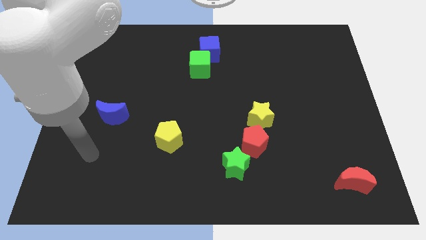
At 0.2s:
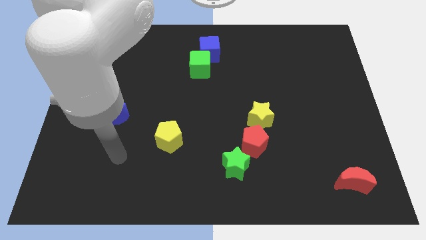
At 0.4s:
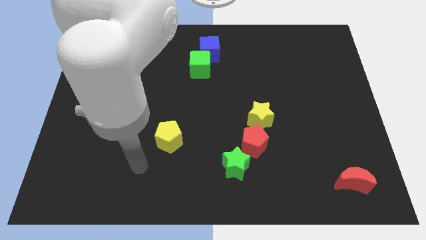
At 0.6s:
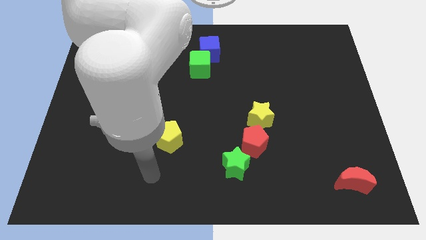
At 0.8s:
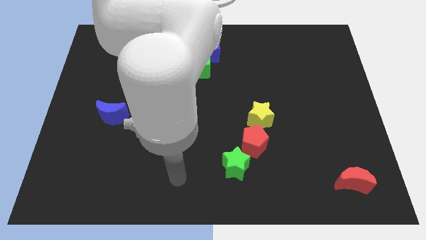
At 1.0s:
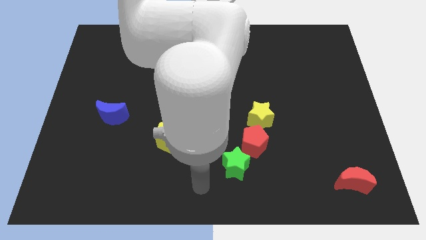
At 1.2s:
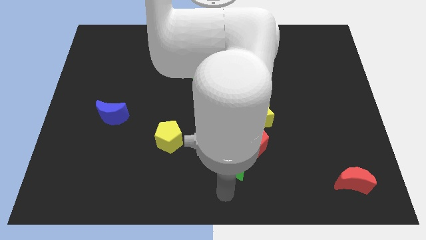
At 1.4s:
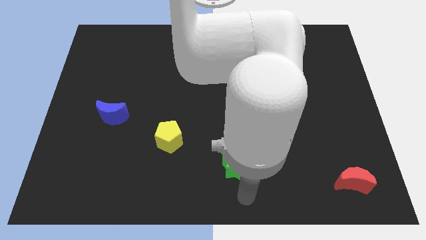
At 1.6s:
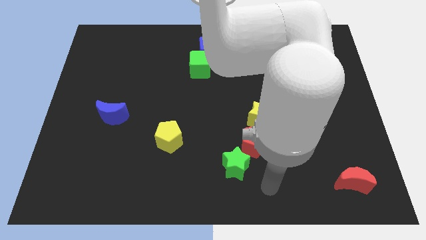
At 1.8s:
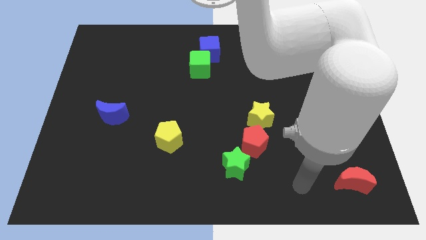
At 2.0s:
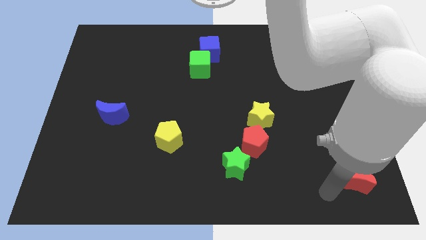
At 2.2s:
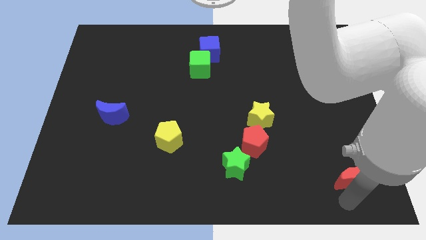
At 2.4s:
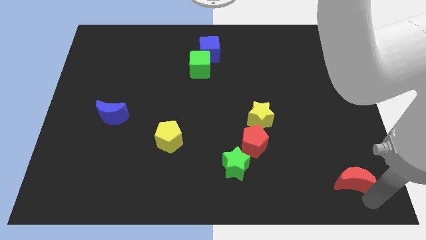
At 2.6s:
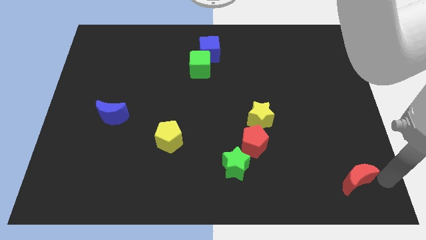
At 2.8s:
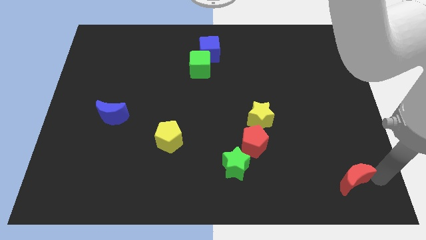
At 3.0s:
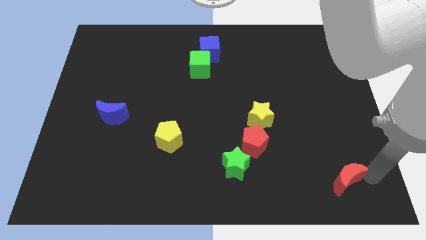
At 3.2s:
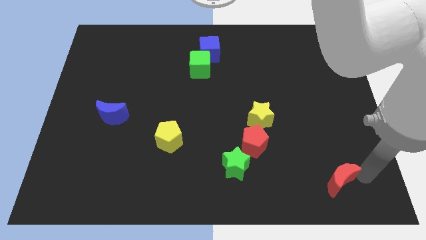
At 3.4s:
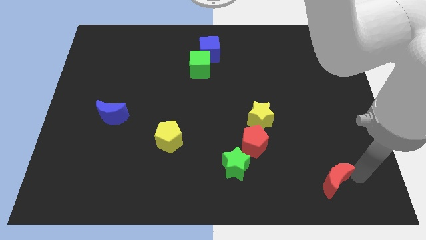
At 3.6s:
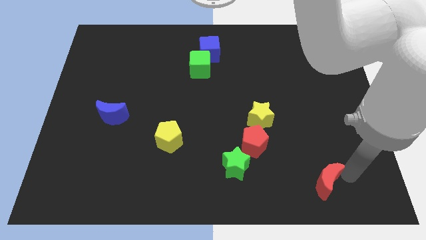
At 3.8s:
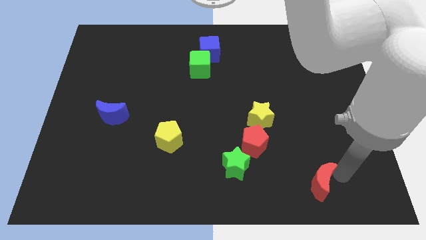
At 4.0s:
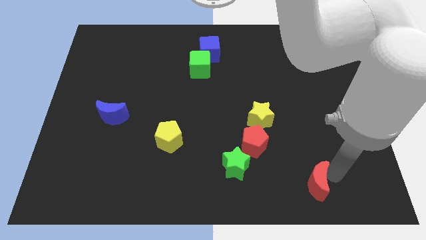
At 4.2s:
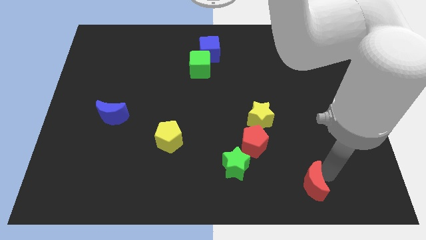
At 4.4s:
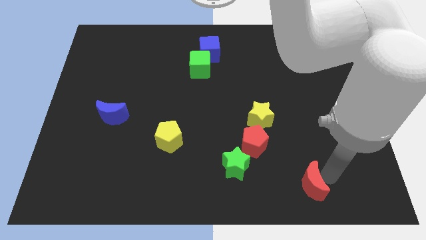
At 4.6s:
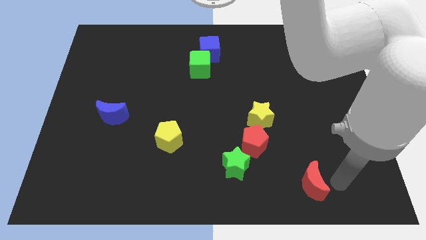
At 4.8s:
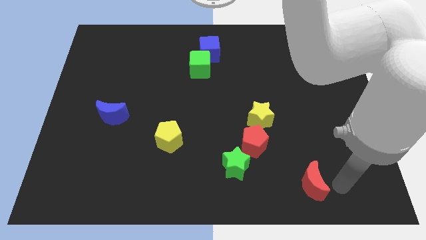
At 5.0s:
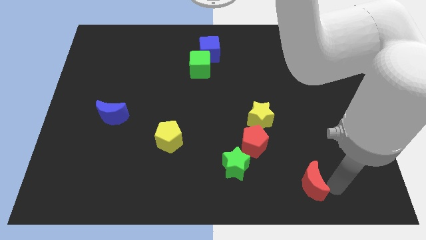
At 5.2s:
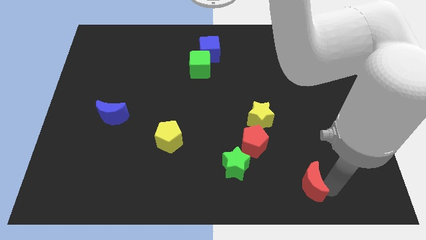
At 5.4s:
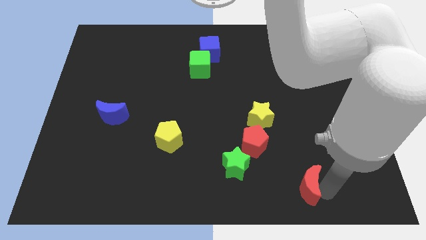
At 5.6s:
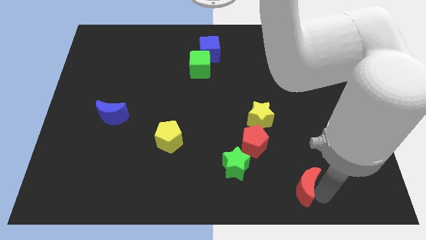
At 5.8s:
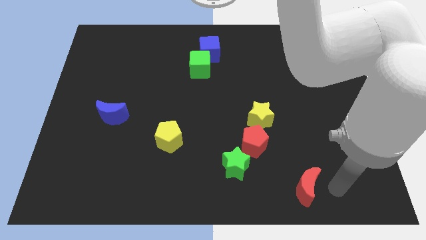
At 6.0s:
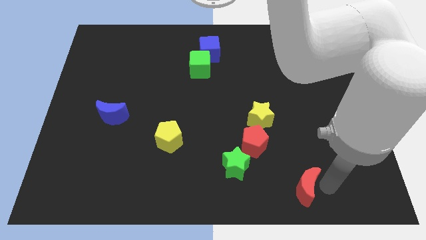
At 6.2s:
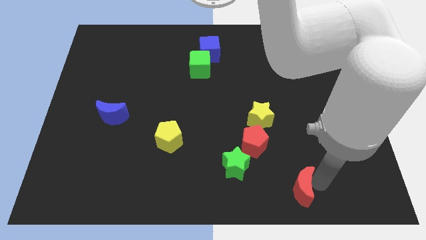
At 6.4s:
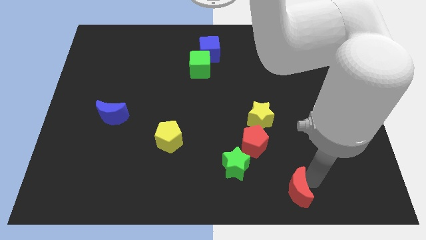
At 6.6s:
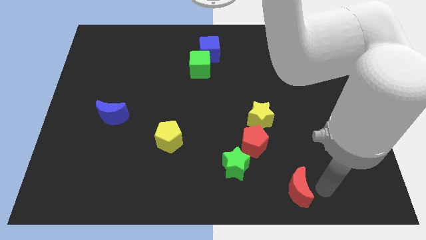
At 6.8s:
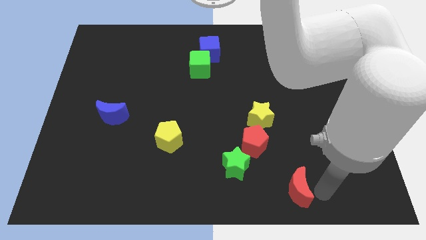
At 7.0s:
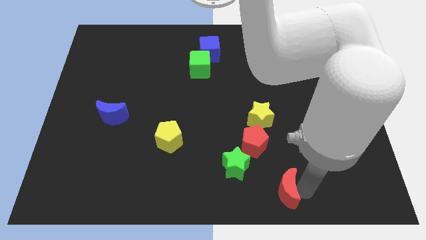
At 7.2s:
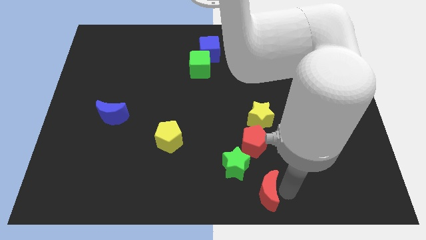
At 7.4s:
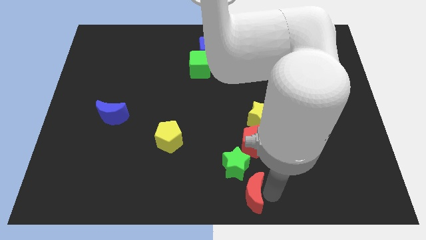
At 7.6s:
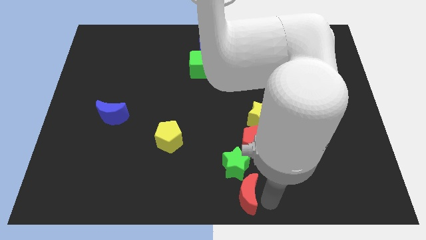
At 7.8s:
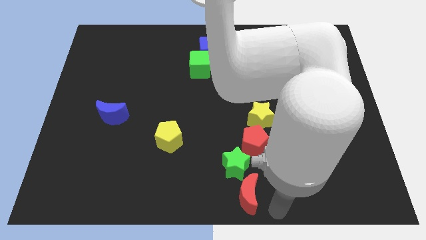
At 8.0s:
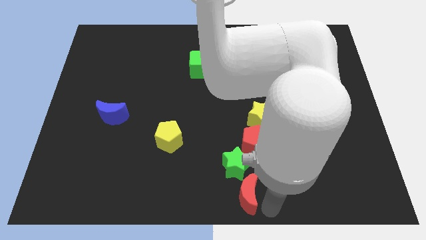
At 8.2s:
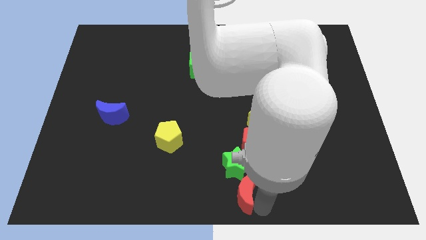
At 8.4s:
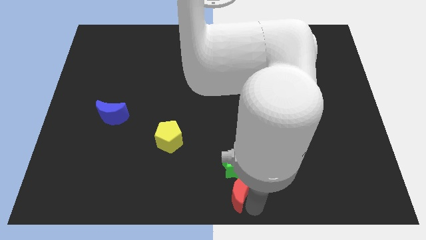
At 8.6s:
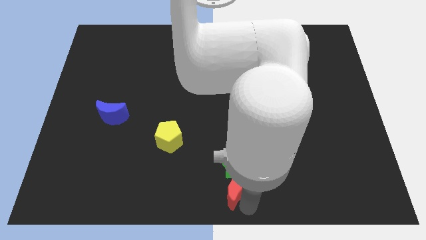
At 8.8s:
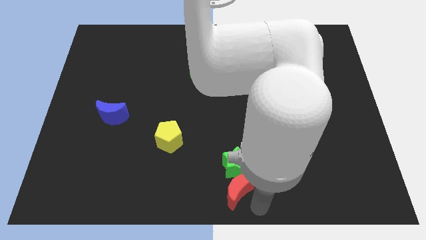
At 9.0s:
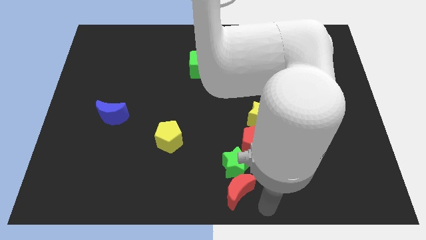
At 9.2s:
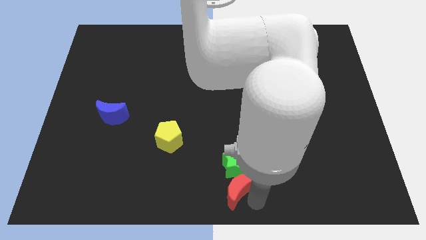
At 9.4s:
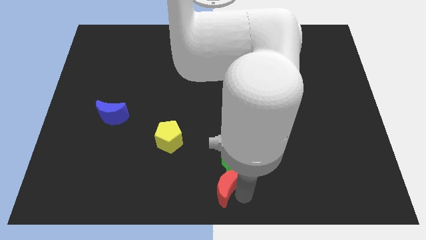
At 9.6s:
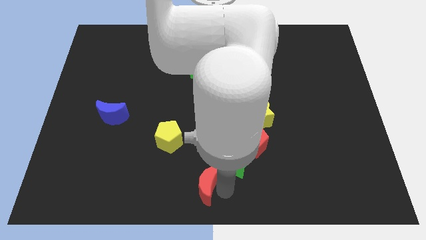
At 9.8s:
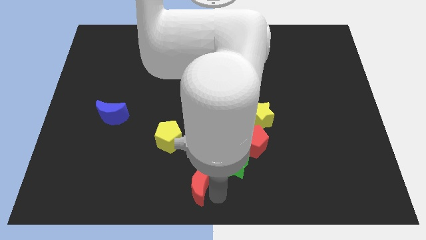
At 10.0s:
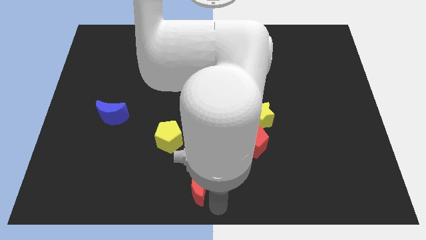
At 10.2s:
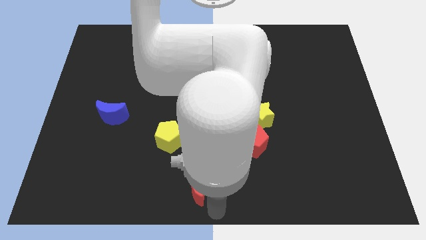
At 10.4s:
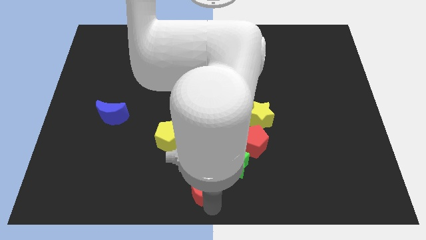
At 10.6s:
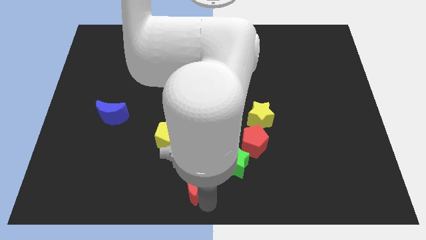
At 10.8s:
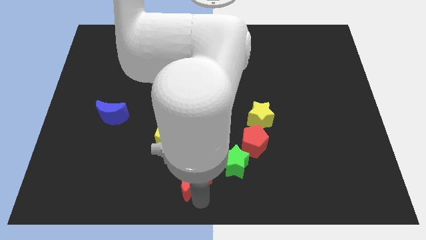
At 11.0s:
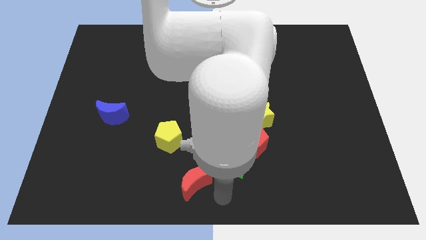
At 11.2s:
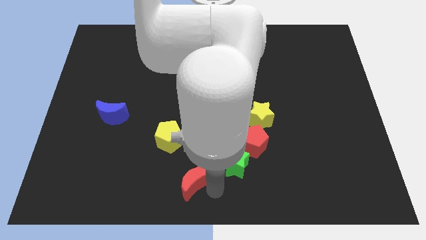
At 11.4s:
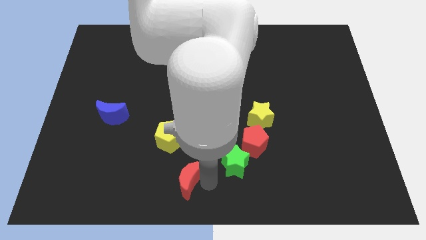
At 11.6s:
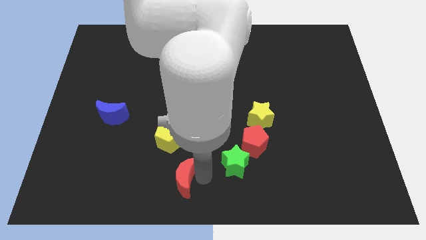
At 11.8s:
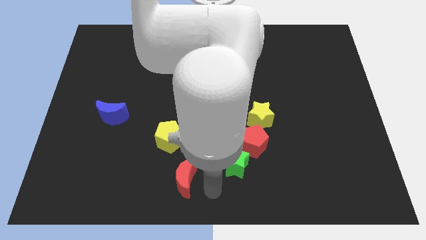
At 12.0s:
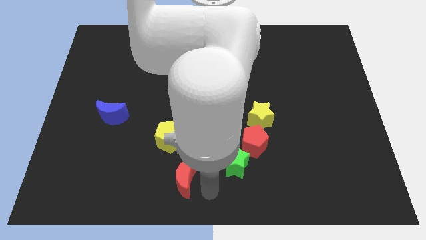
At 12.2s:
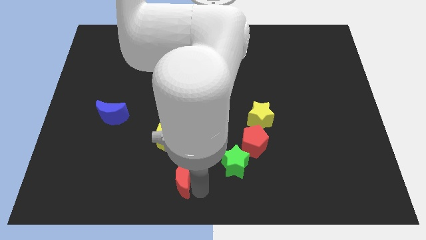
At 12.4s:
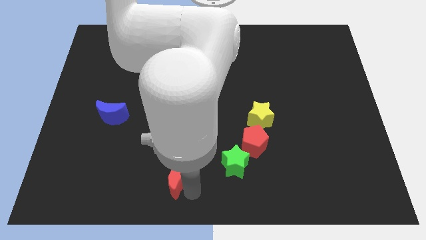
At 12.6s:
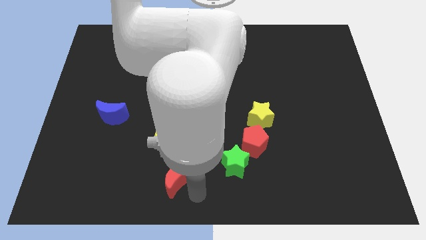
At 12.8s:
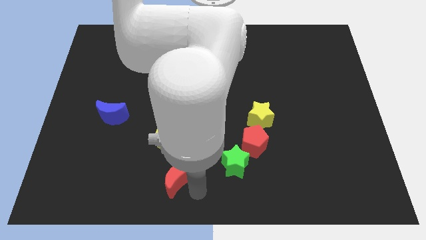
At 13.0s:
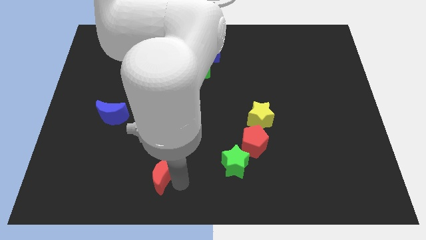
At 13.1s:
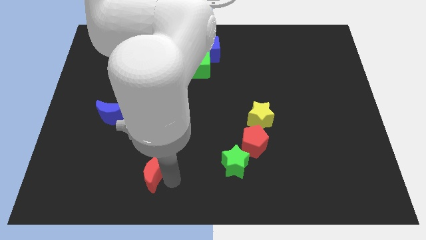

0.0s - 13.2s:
move the red moon to the bottom left of the yellow pentagon

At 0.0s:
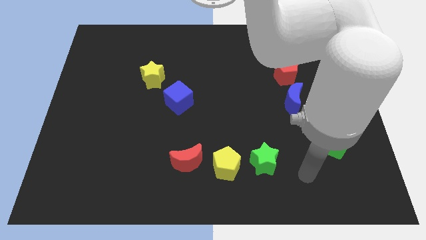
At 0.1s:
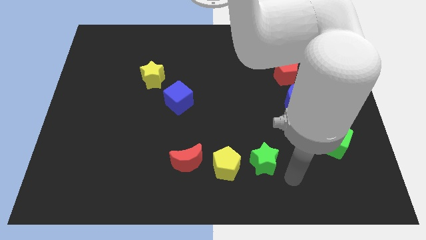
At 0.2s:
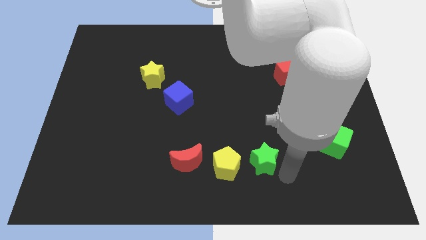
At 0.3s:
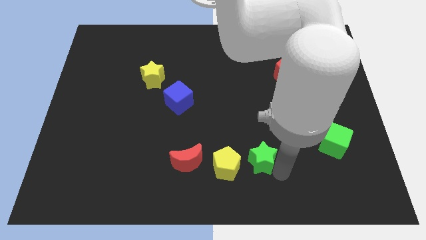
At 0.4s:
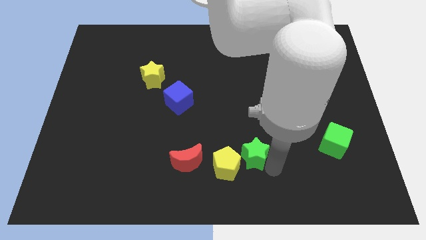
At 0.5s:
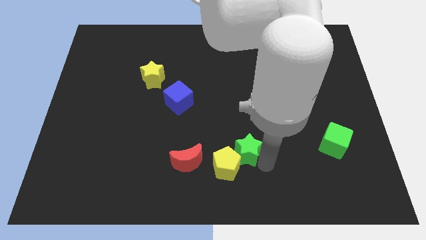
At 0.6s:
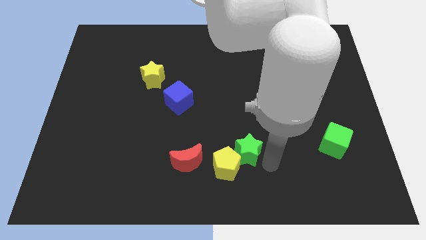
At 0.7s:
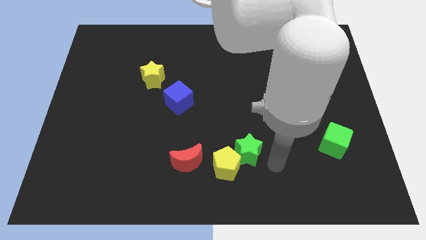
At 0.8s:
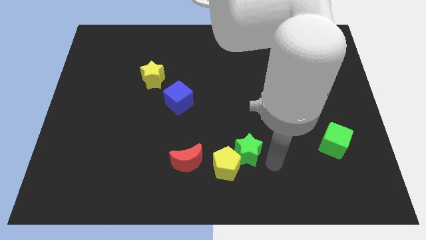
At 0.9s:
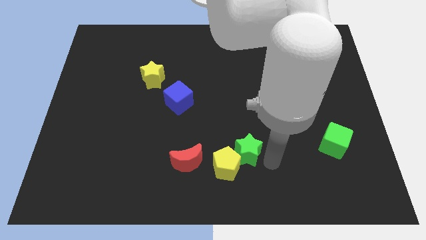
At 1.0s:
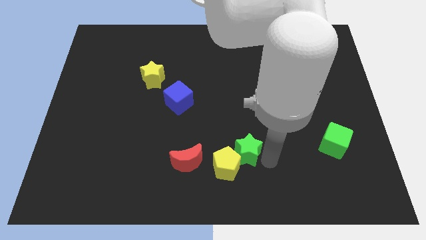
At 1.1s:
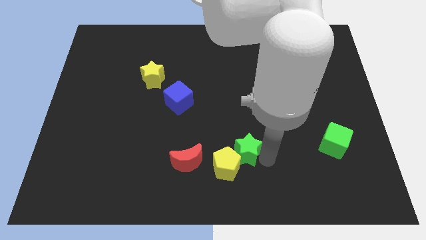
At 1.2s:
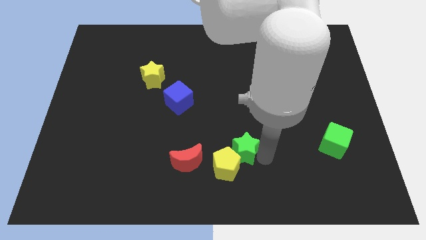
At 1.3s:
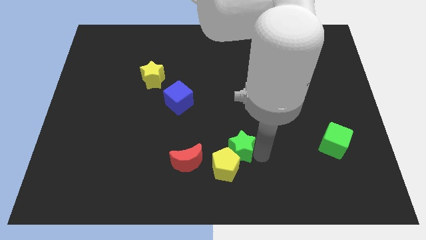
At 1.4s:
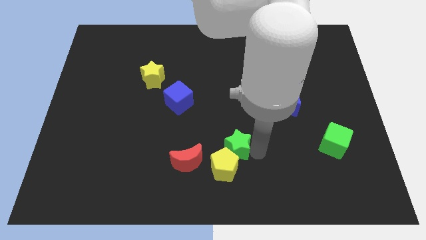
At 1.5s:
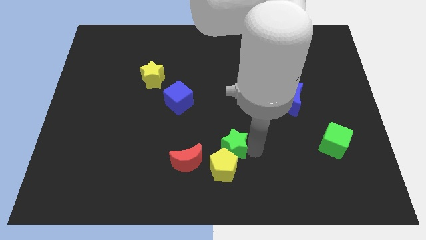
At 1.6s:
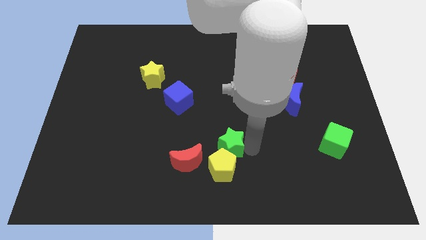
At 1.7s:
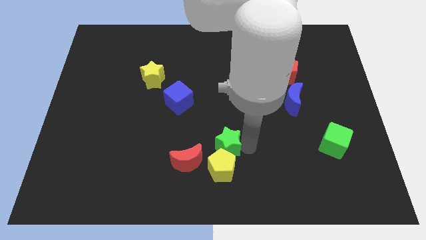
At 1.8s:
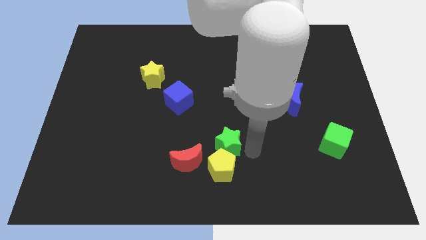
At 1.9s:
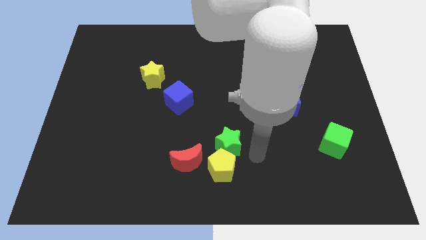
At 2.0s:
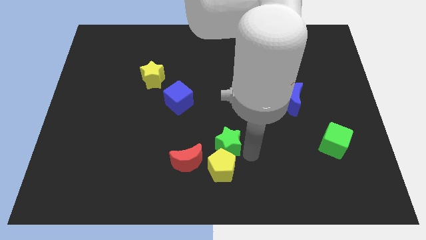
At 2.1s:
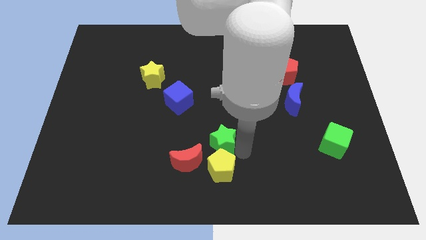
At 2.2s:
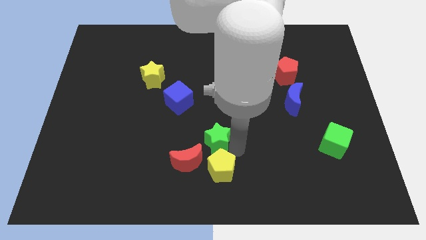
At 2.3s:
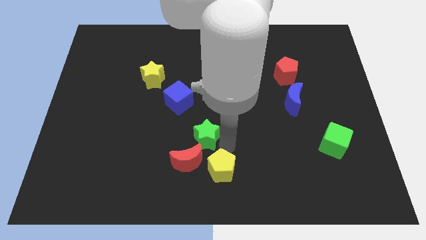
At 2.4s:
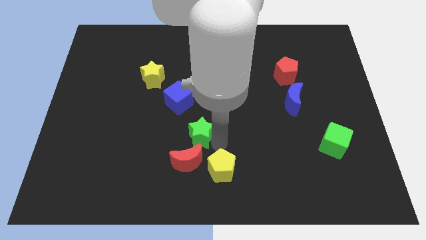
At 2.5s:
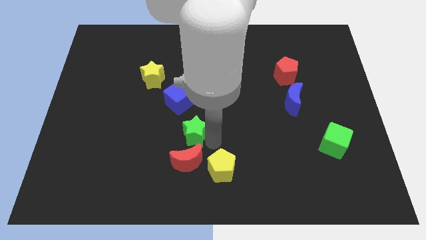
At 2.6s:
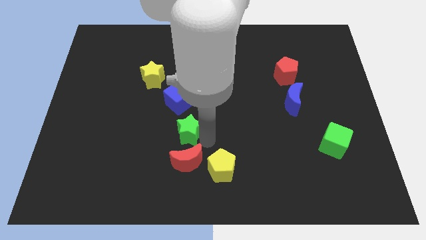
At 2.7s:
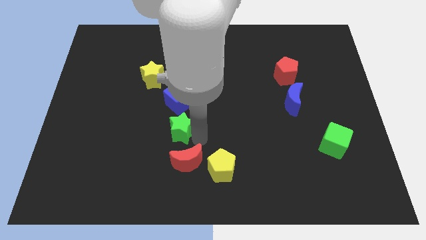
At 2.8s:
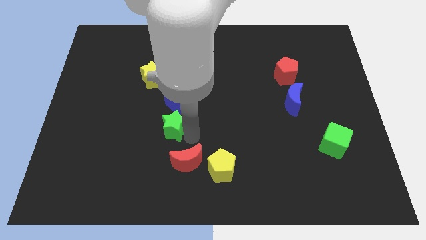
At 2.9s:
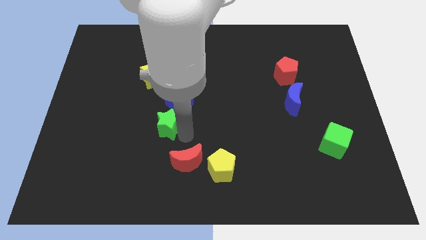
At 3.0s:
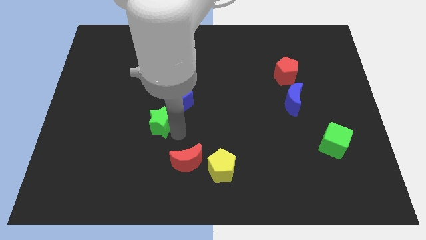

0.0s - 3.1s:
slide the green star to the bottom side of the yellow star
